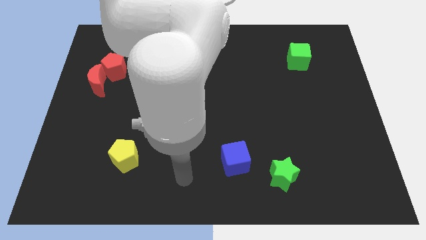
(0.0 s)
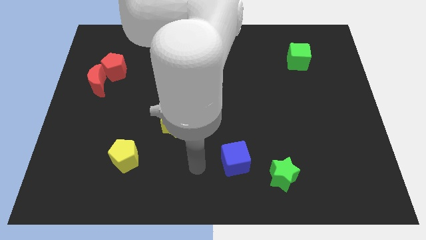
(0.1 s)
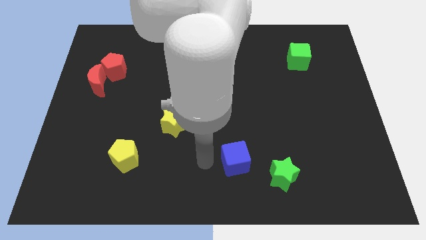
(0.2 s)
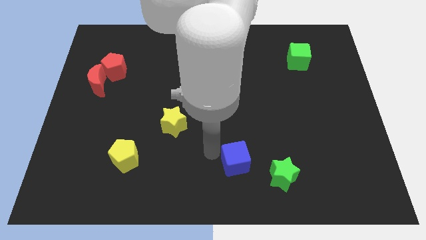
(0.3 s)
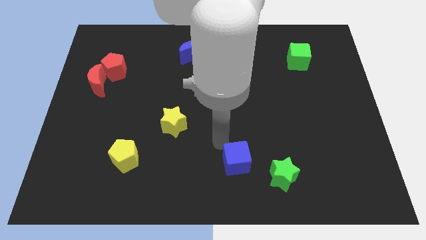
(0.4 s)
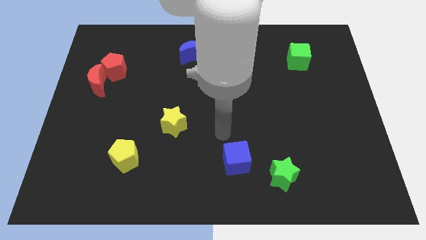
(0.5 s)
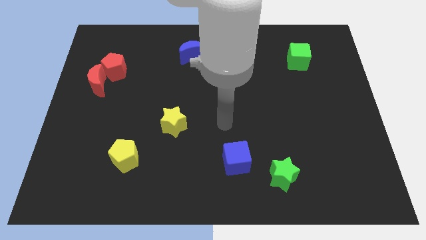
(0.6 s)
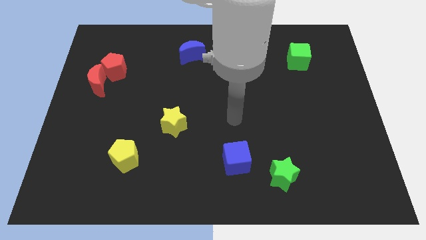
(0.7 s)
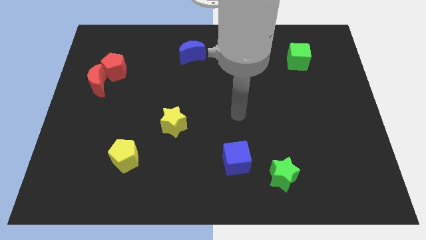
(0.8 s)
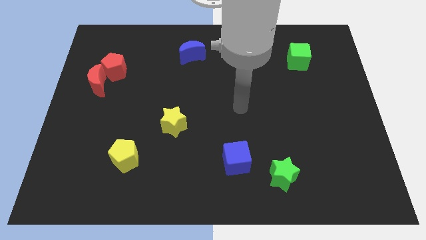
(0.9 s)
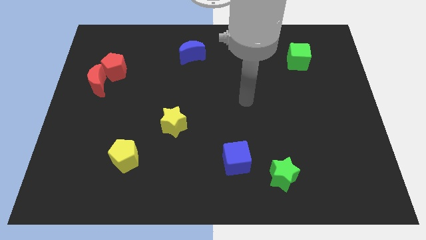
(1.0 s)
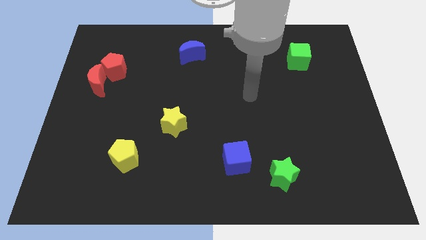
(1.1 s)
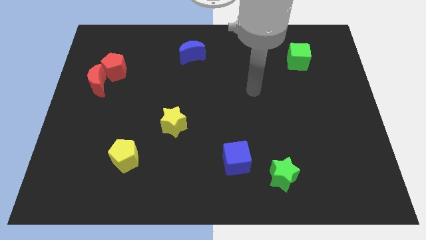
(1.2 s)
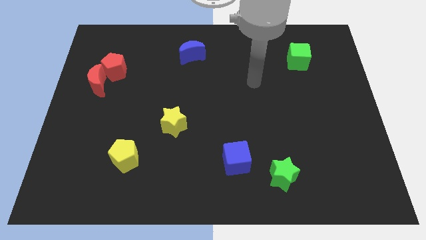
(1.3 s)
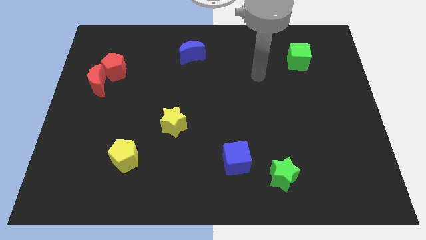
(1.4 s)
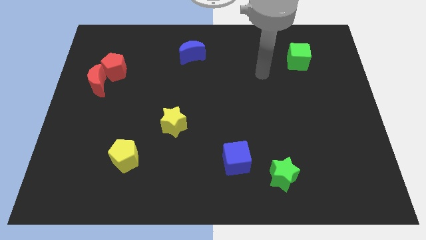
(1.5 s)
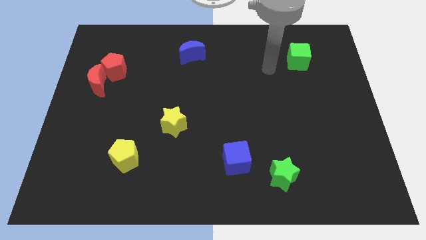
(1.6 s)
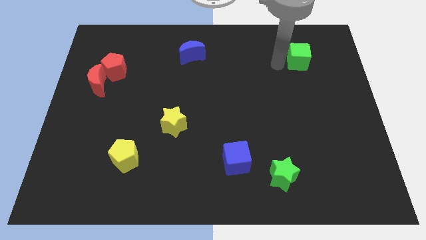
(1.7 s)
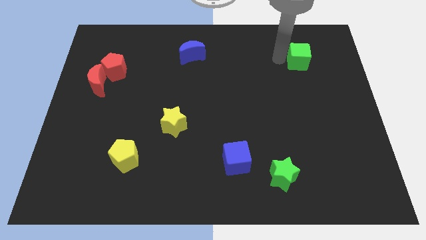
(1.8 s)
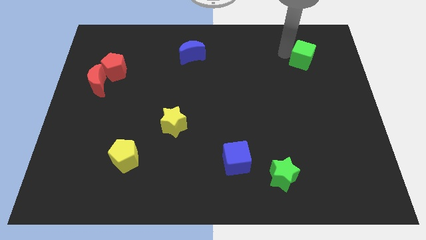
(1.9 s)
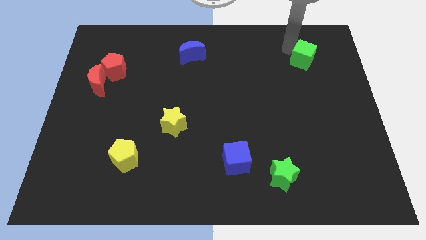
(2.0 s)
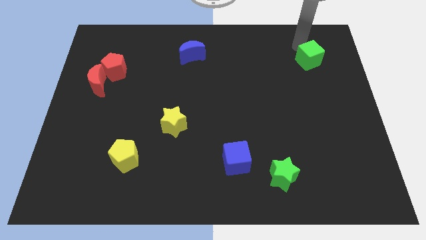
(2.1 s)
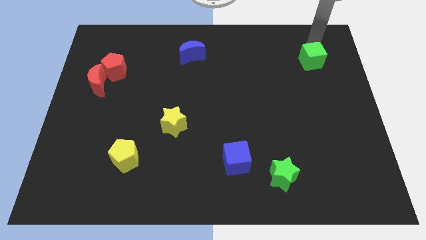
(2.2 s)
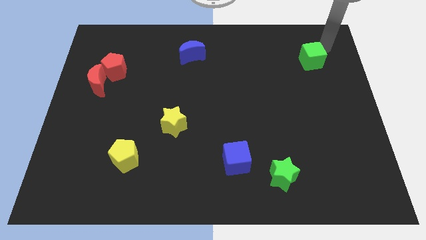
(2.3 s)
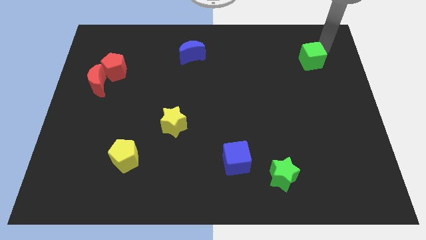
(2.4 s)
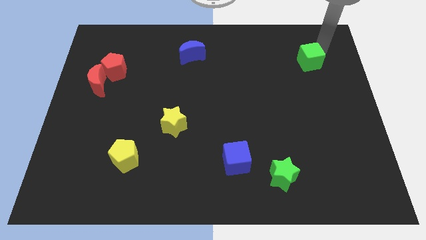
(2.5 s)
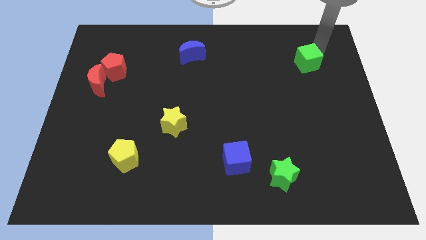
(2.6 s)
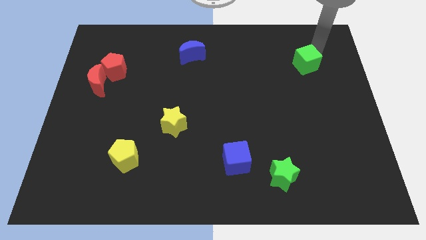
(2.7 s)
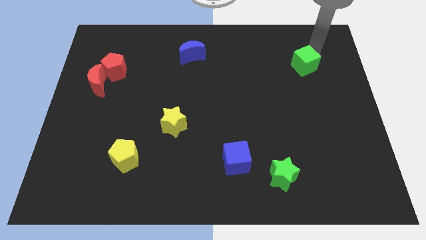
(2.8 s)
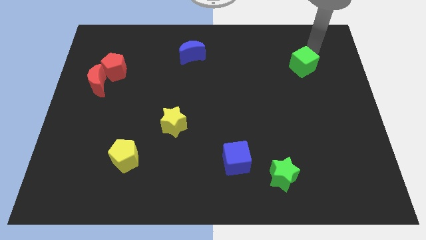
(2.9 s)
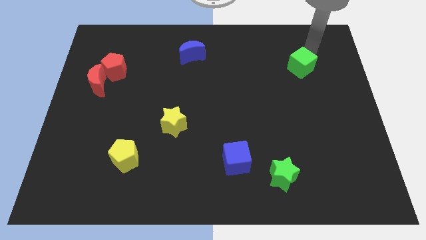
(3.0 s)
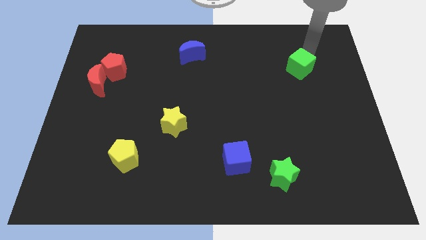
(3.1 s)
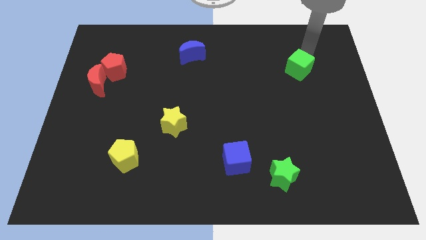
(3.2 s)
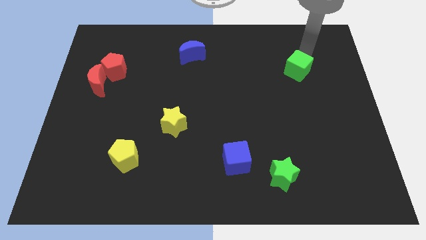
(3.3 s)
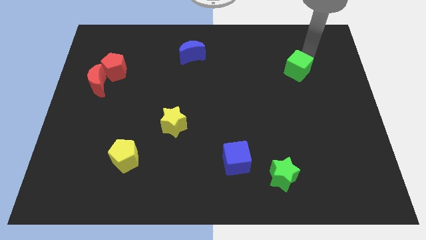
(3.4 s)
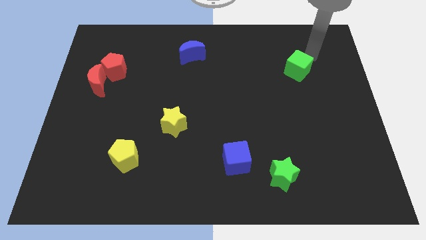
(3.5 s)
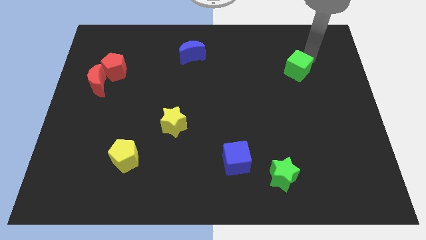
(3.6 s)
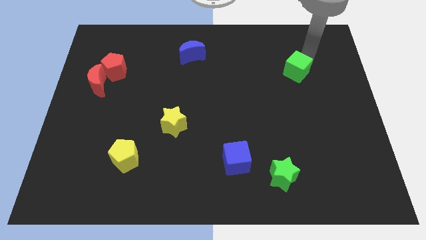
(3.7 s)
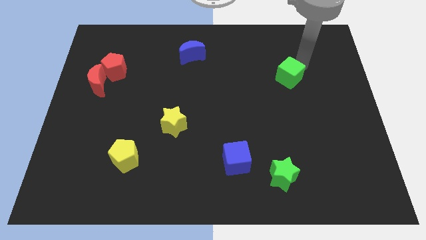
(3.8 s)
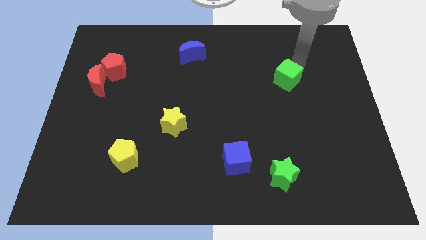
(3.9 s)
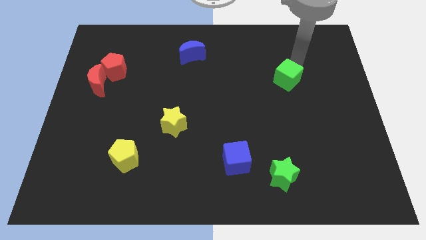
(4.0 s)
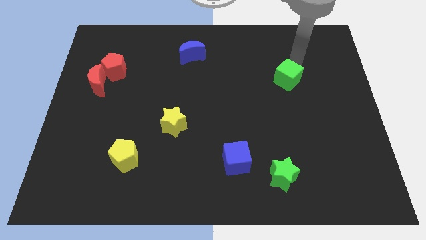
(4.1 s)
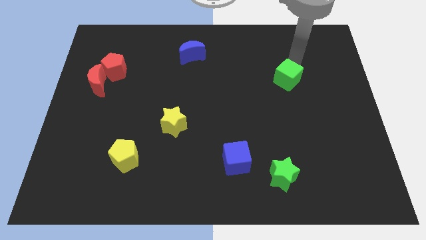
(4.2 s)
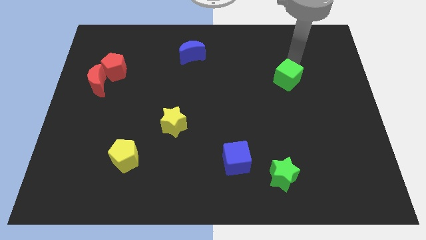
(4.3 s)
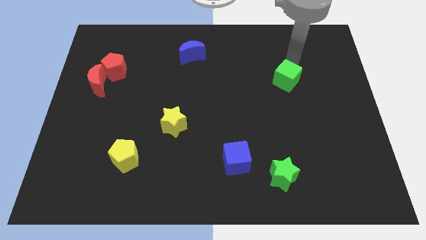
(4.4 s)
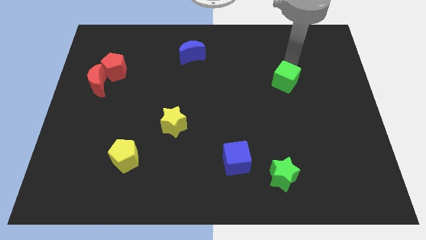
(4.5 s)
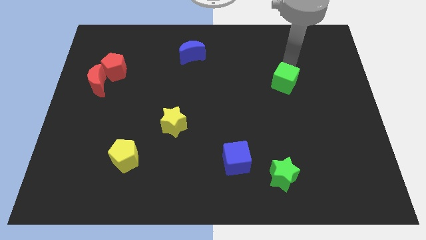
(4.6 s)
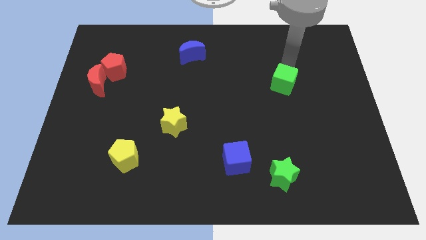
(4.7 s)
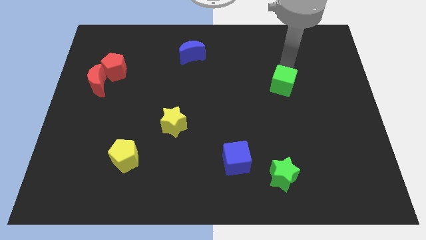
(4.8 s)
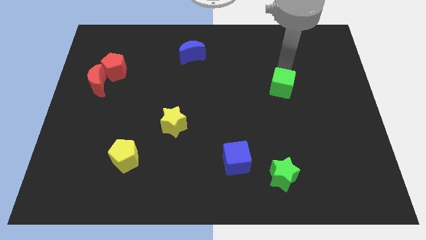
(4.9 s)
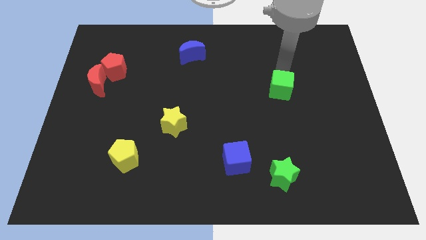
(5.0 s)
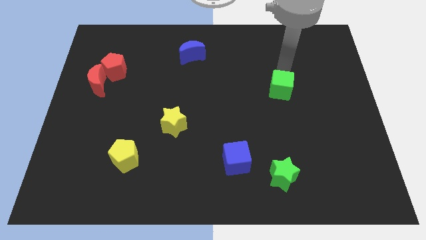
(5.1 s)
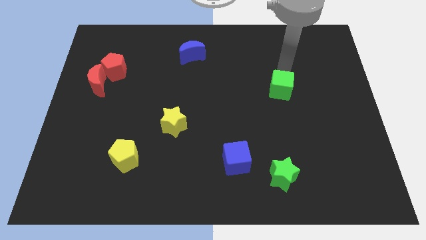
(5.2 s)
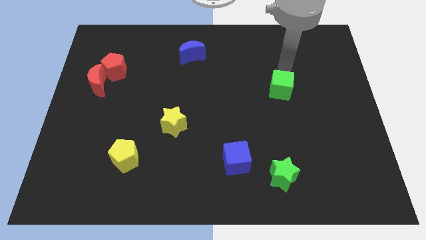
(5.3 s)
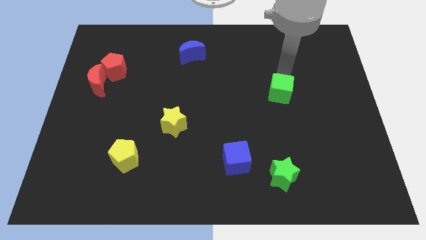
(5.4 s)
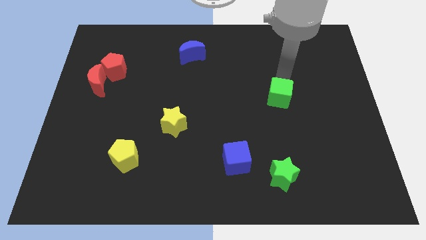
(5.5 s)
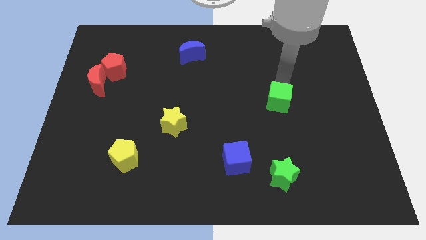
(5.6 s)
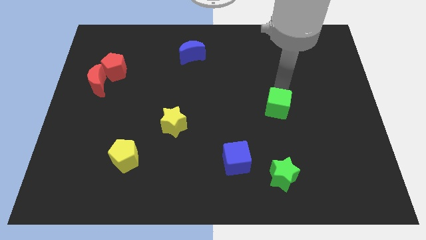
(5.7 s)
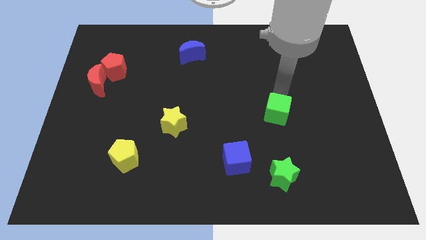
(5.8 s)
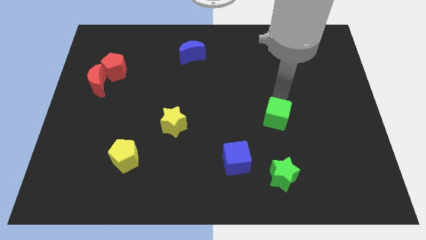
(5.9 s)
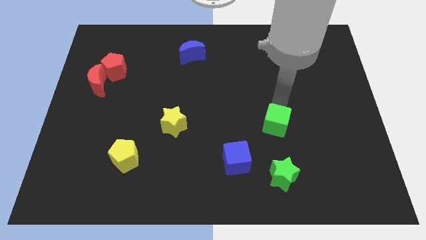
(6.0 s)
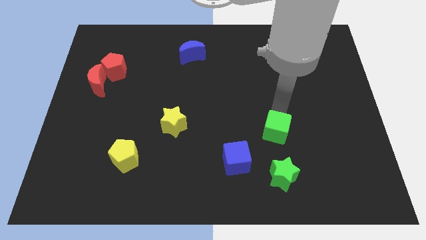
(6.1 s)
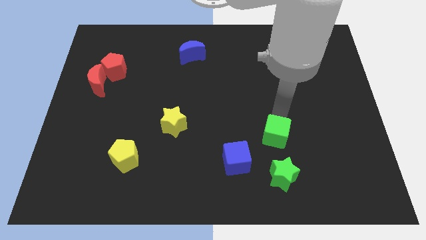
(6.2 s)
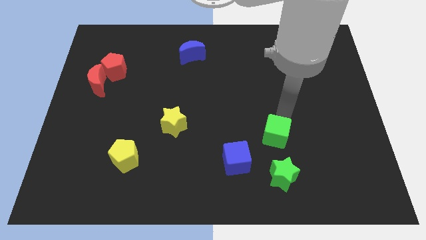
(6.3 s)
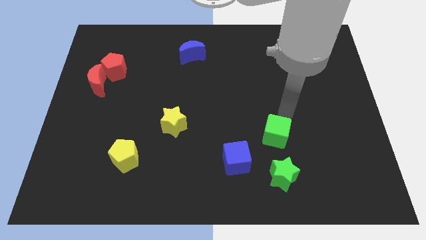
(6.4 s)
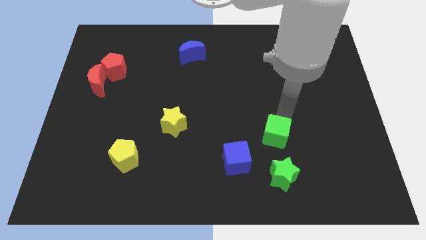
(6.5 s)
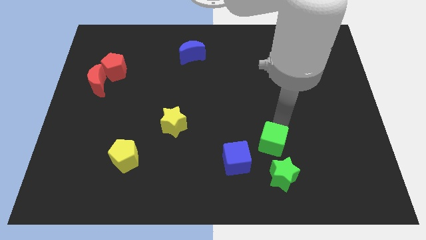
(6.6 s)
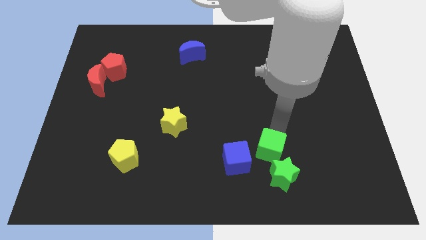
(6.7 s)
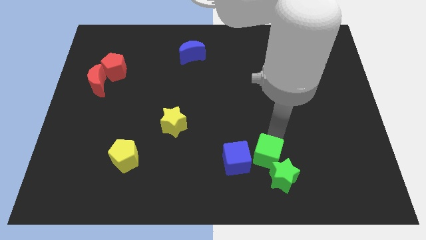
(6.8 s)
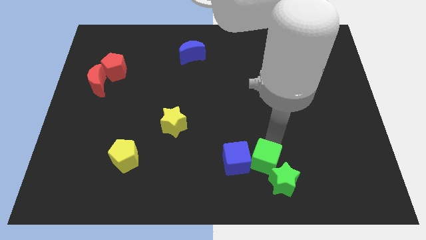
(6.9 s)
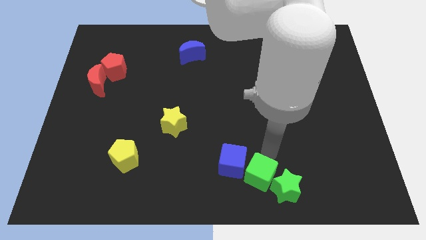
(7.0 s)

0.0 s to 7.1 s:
put the green cube to the bottom side

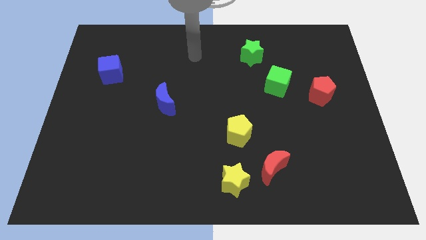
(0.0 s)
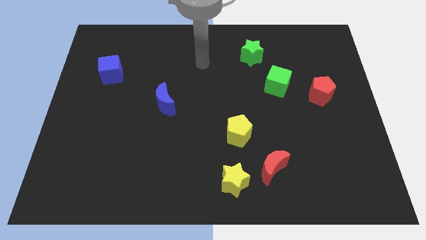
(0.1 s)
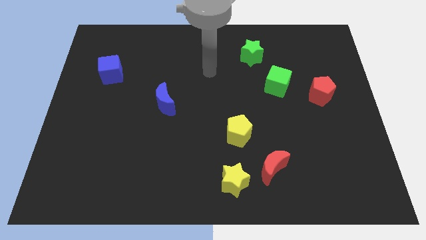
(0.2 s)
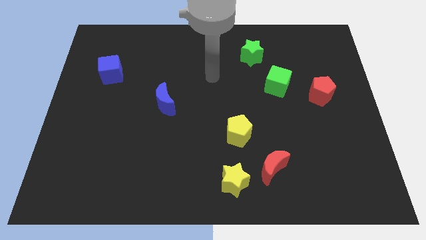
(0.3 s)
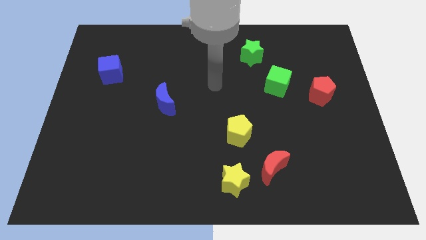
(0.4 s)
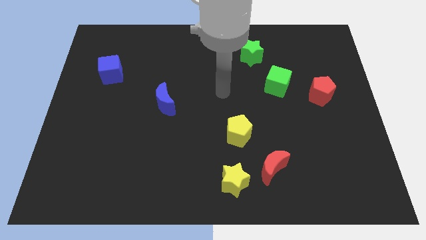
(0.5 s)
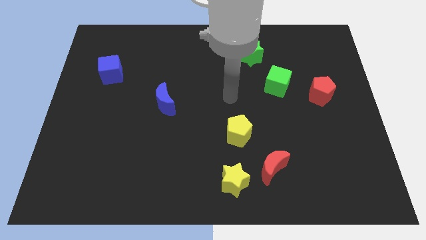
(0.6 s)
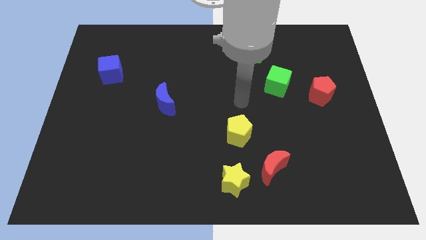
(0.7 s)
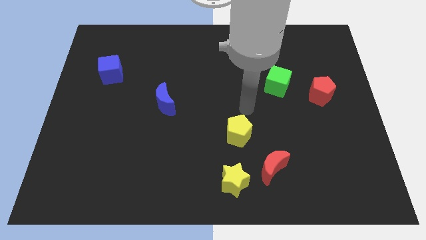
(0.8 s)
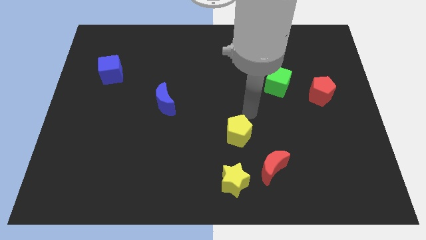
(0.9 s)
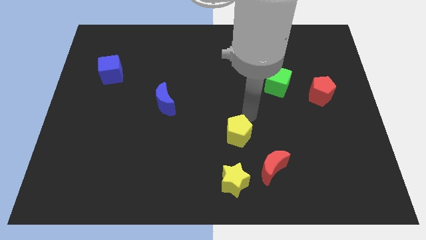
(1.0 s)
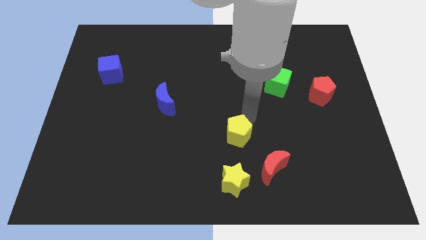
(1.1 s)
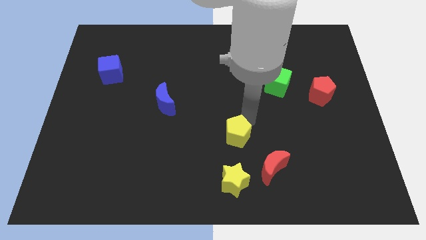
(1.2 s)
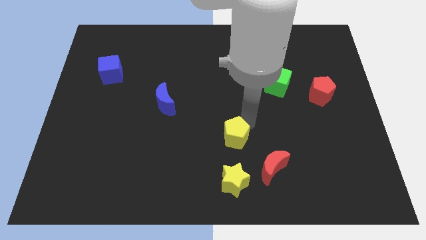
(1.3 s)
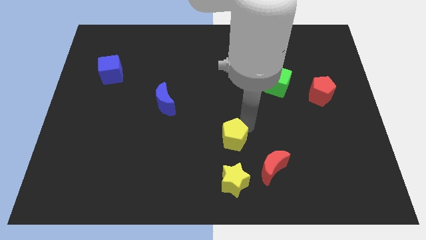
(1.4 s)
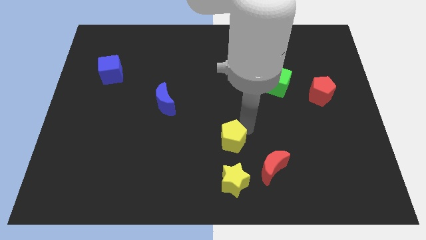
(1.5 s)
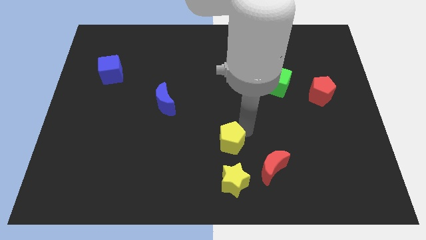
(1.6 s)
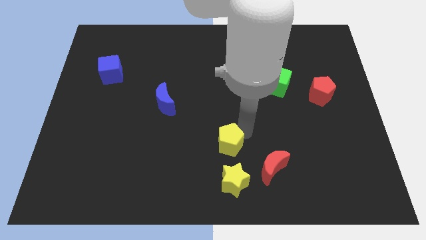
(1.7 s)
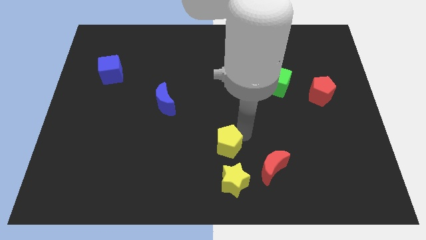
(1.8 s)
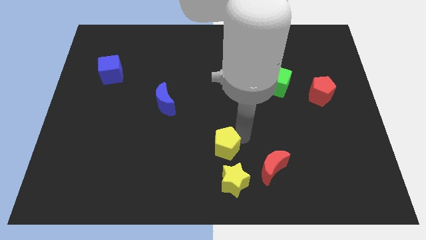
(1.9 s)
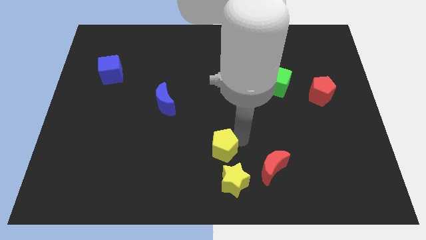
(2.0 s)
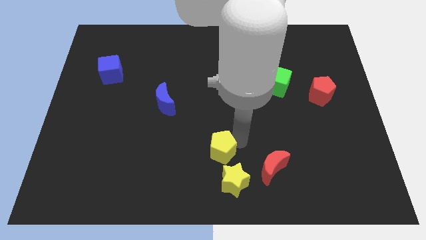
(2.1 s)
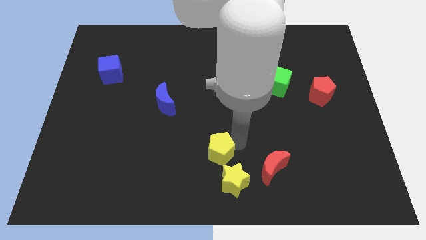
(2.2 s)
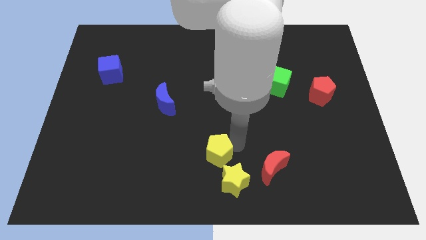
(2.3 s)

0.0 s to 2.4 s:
put the yellow pentagon to the bottom side
